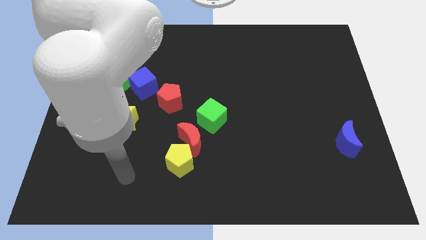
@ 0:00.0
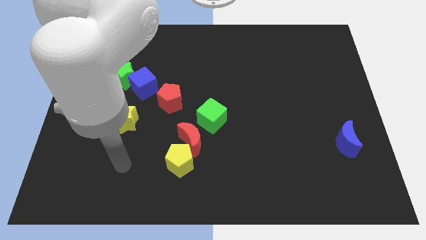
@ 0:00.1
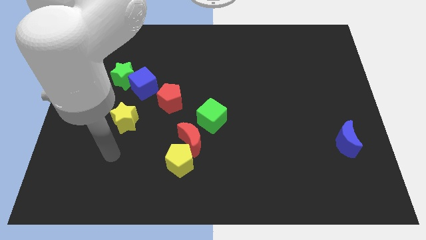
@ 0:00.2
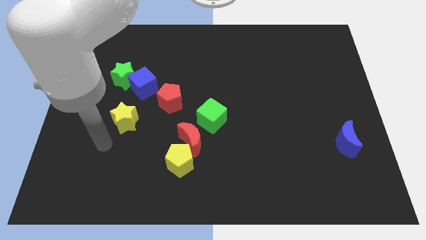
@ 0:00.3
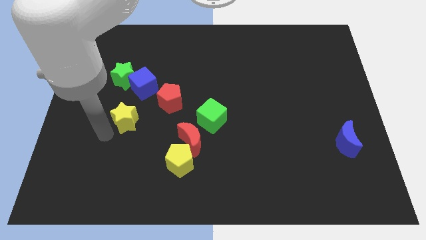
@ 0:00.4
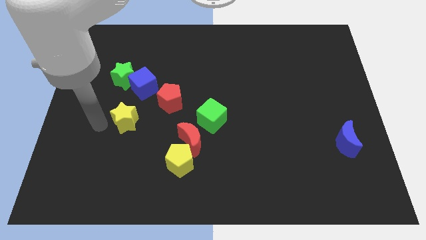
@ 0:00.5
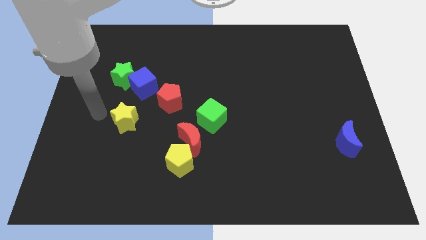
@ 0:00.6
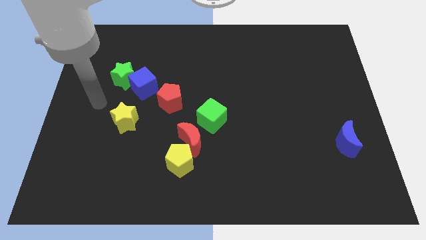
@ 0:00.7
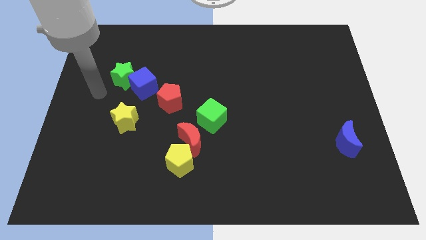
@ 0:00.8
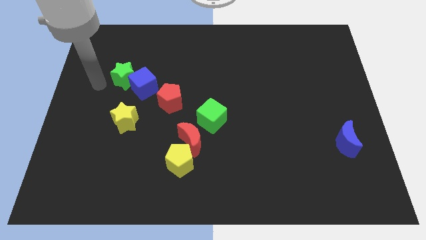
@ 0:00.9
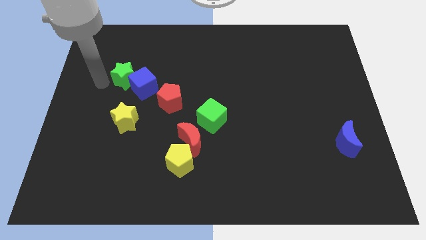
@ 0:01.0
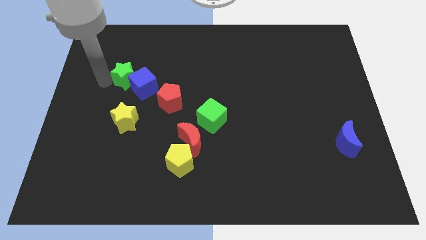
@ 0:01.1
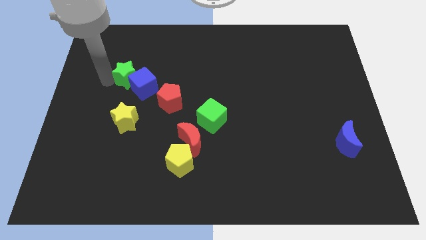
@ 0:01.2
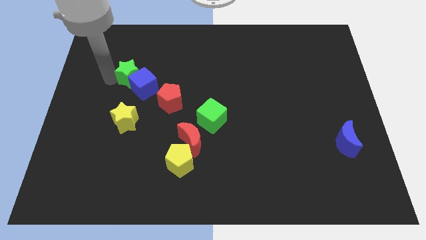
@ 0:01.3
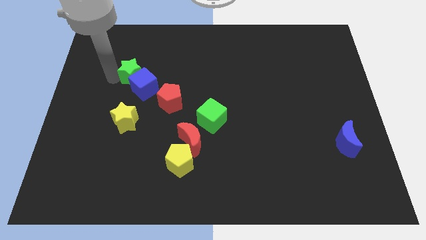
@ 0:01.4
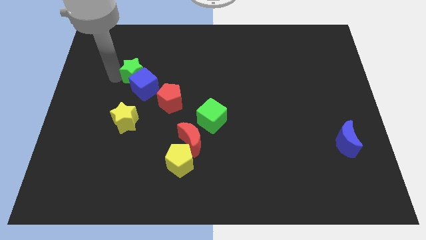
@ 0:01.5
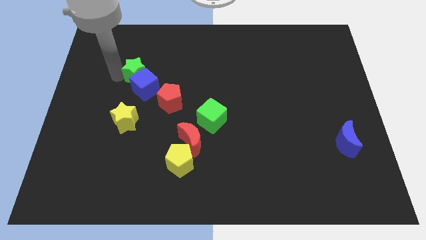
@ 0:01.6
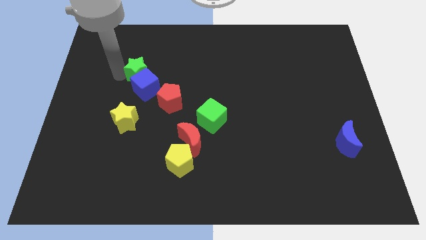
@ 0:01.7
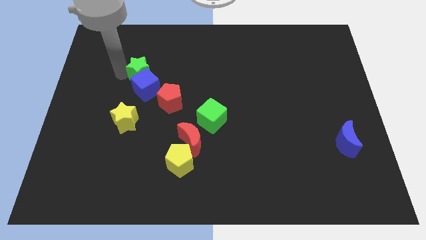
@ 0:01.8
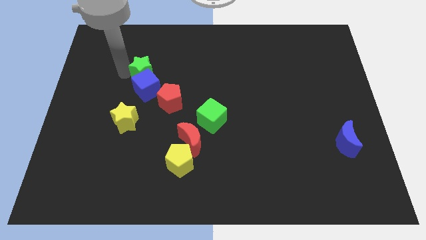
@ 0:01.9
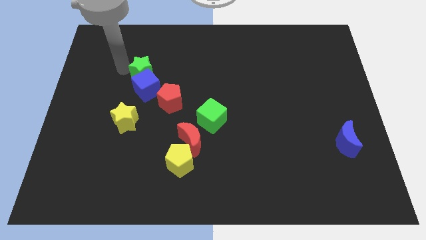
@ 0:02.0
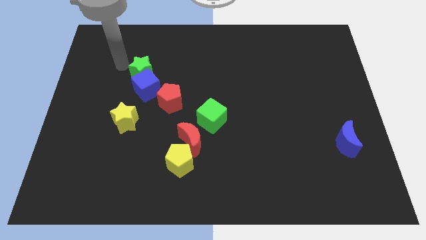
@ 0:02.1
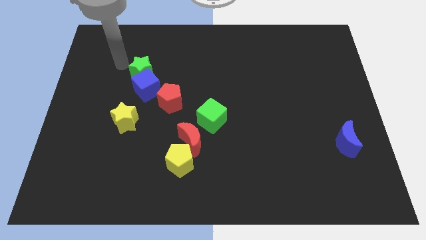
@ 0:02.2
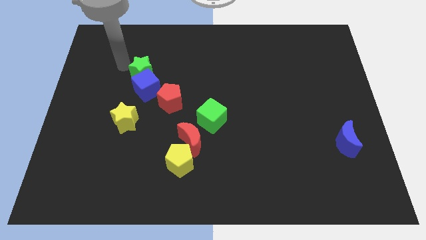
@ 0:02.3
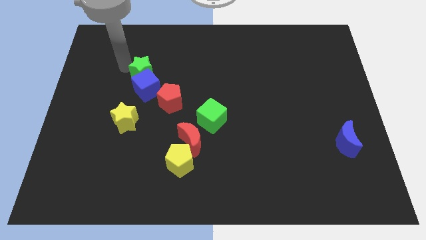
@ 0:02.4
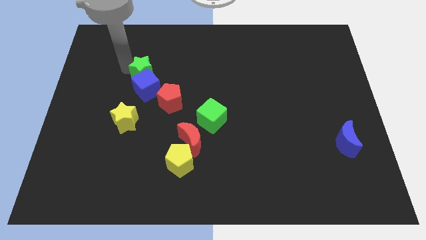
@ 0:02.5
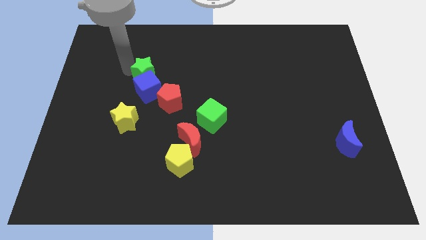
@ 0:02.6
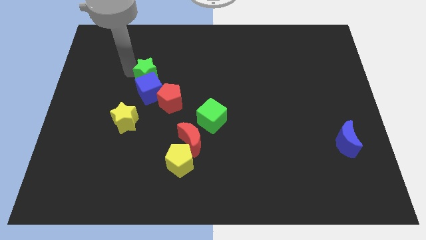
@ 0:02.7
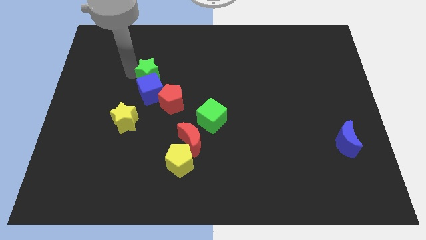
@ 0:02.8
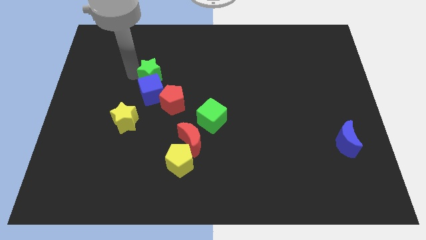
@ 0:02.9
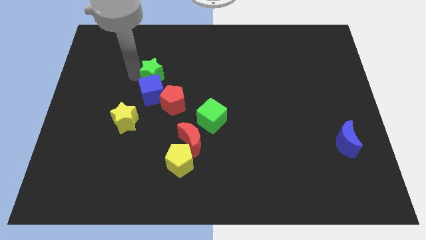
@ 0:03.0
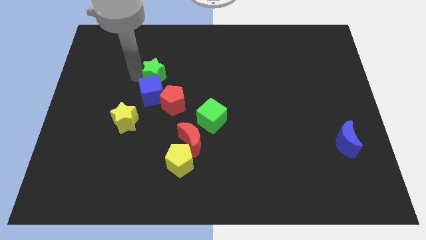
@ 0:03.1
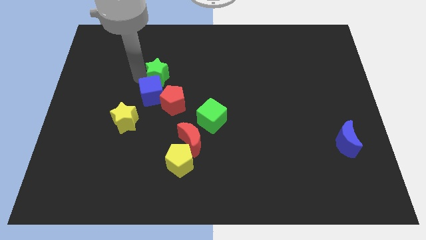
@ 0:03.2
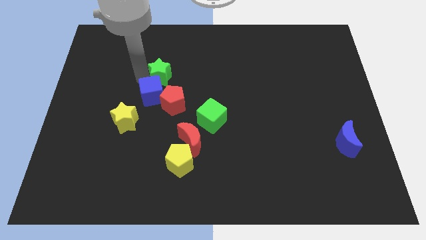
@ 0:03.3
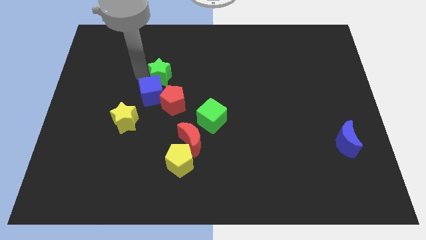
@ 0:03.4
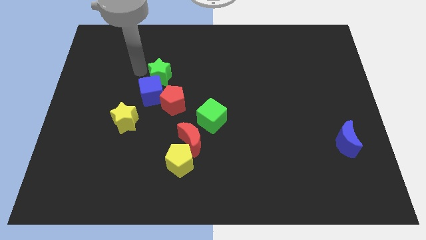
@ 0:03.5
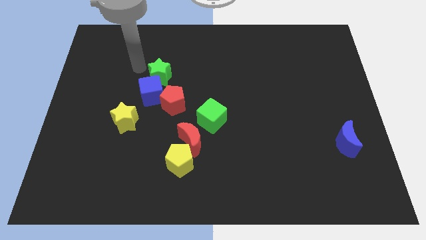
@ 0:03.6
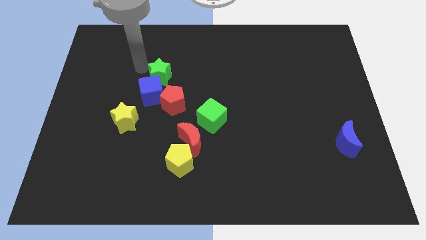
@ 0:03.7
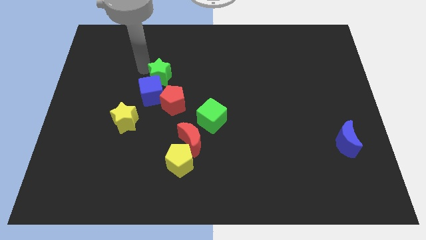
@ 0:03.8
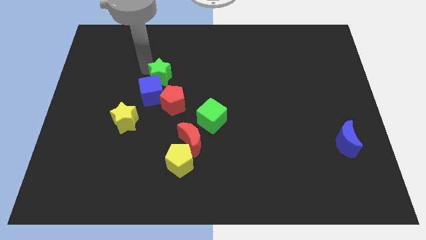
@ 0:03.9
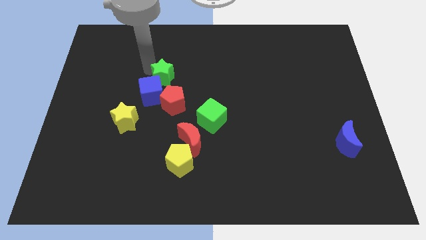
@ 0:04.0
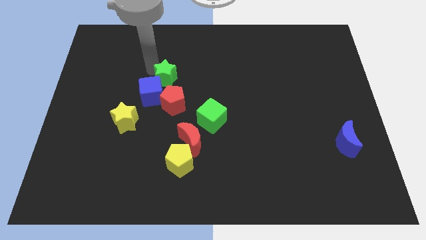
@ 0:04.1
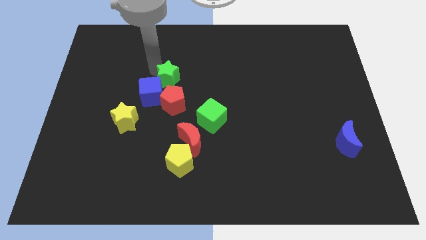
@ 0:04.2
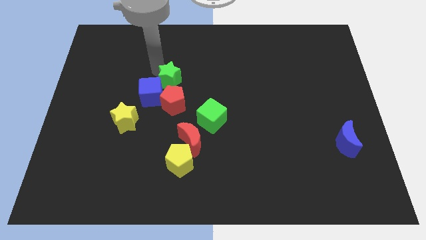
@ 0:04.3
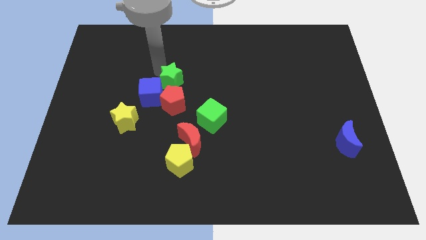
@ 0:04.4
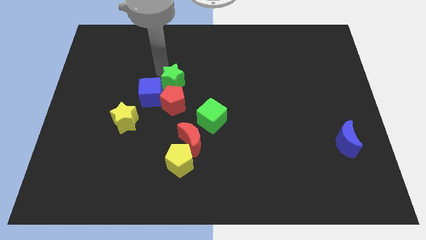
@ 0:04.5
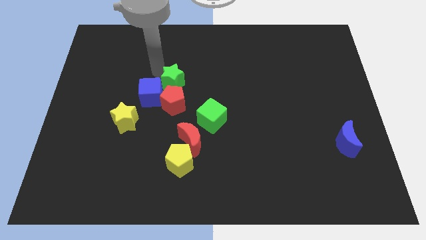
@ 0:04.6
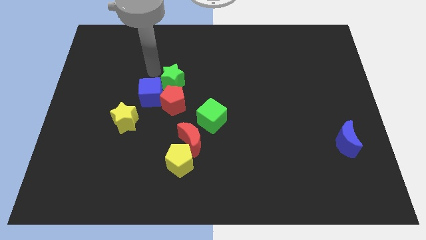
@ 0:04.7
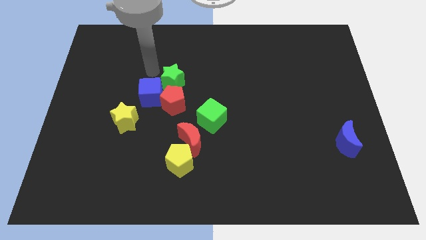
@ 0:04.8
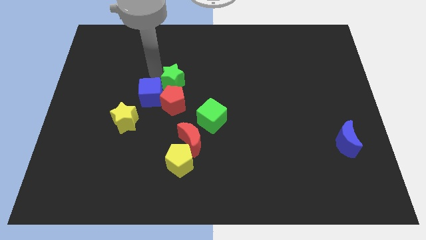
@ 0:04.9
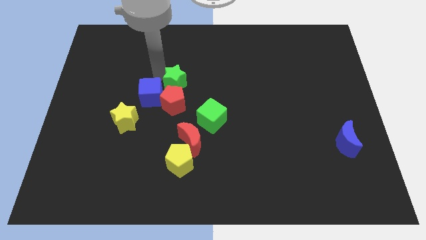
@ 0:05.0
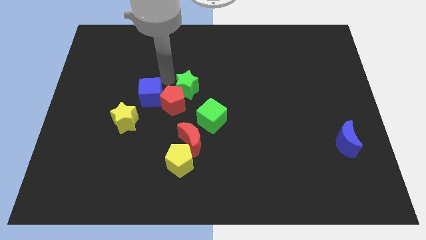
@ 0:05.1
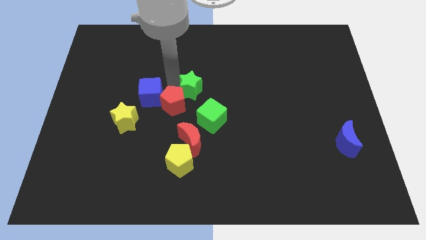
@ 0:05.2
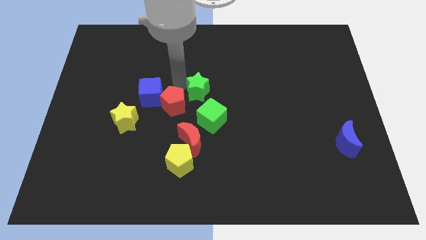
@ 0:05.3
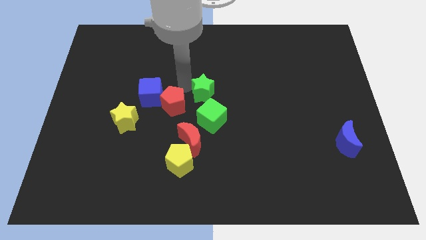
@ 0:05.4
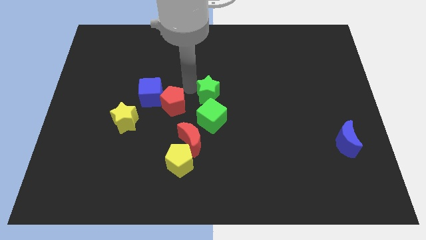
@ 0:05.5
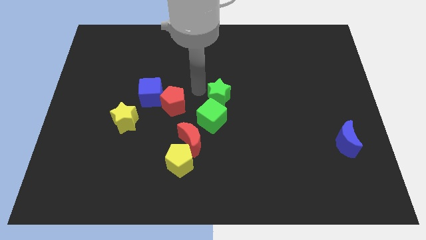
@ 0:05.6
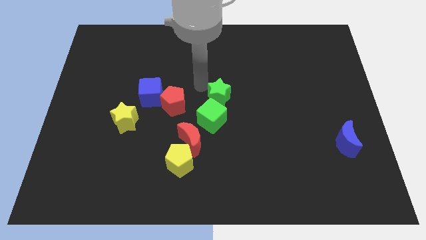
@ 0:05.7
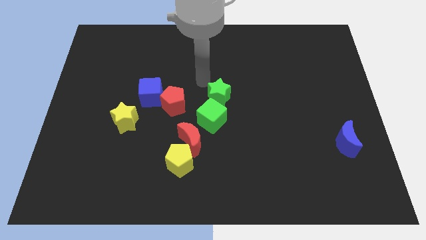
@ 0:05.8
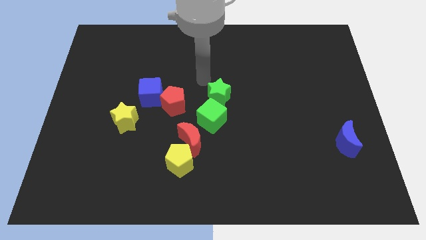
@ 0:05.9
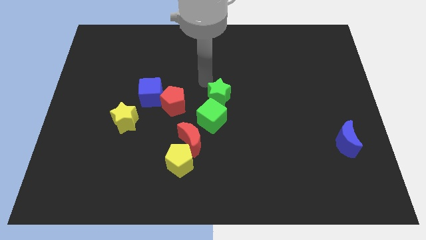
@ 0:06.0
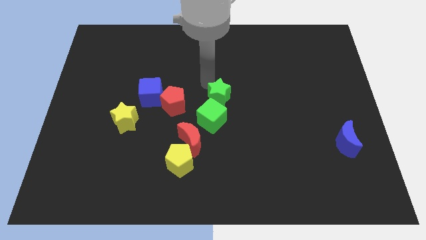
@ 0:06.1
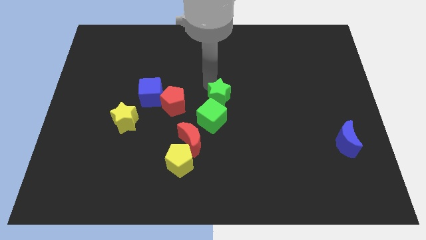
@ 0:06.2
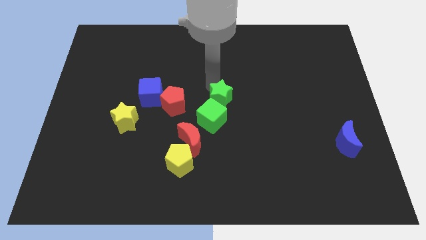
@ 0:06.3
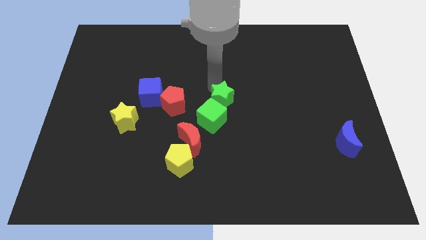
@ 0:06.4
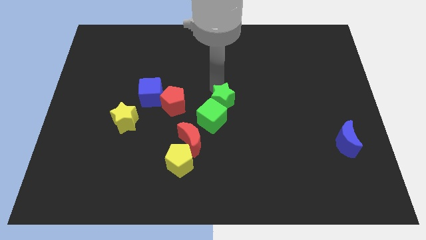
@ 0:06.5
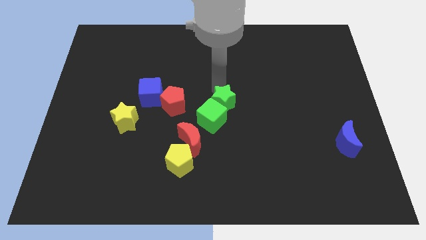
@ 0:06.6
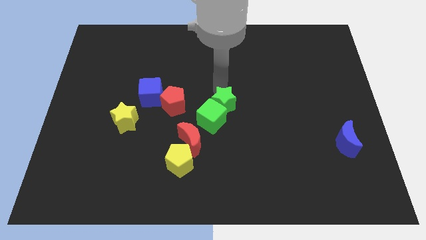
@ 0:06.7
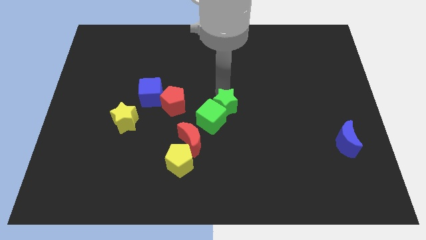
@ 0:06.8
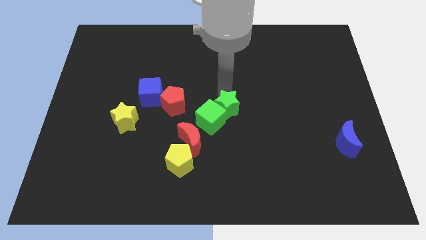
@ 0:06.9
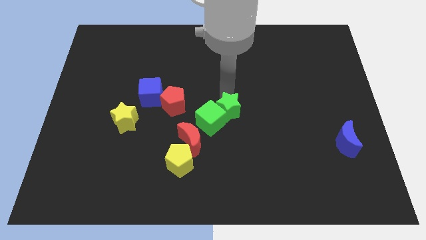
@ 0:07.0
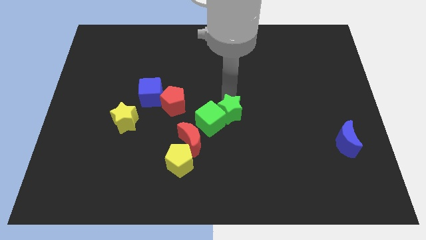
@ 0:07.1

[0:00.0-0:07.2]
push the green star diagonally downwards and to the right

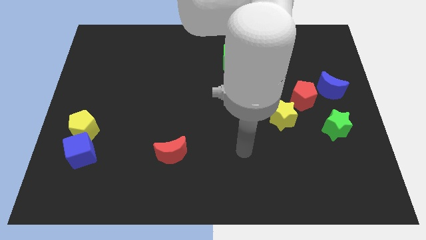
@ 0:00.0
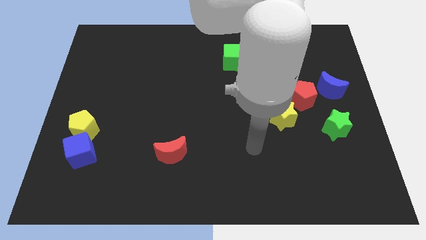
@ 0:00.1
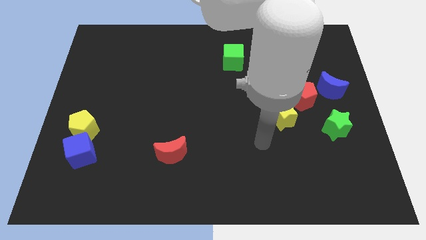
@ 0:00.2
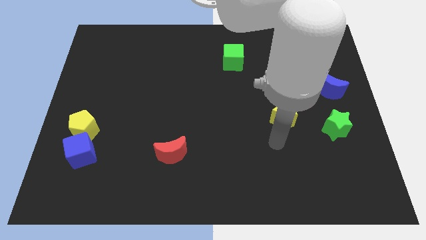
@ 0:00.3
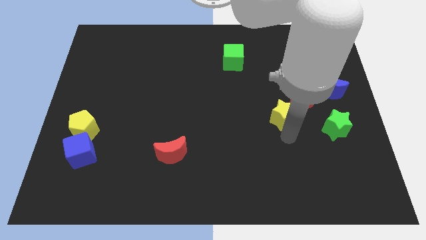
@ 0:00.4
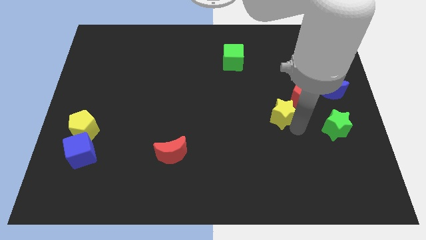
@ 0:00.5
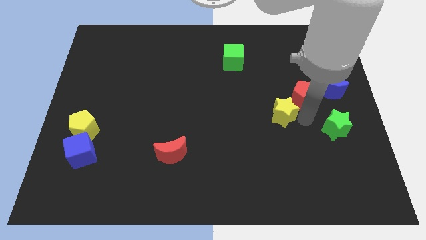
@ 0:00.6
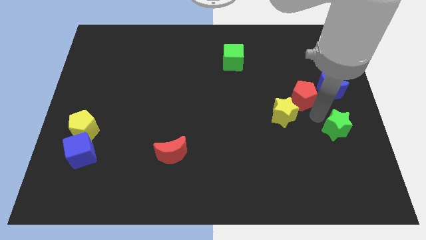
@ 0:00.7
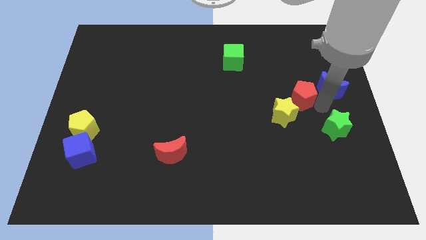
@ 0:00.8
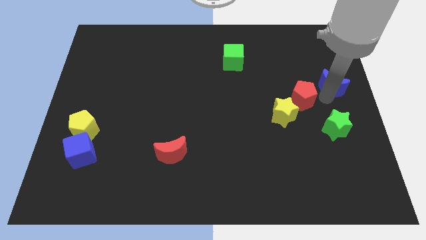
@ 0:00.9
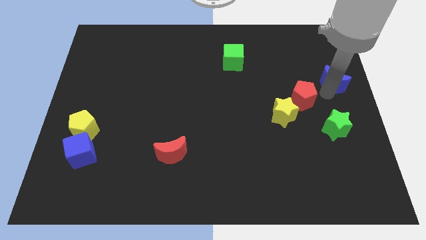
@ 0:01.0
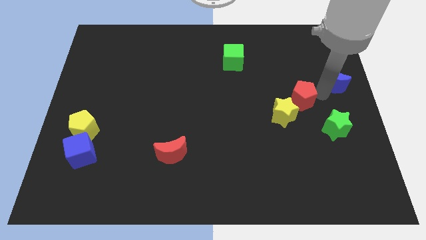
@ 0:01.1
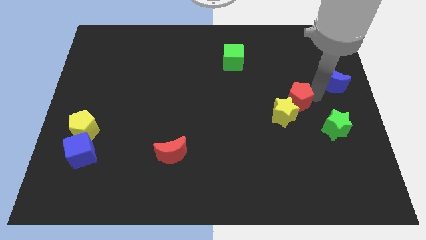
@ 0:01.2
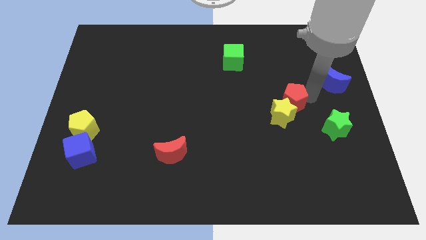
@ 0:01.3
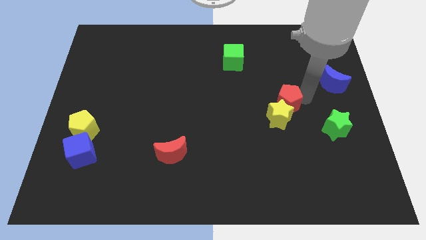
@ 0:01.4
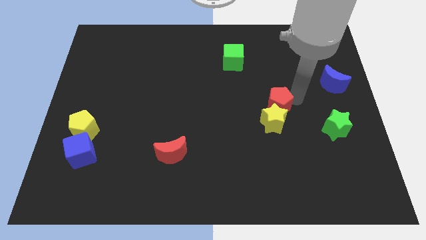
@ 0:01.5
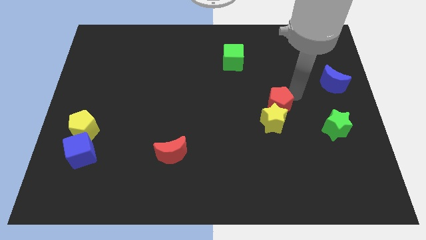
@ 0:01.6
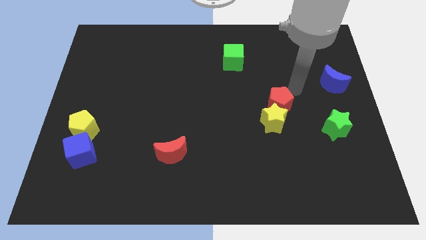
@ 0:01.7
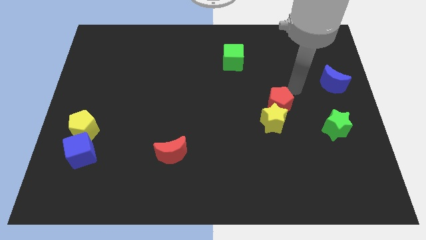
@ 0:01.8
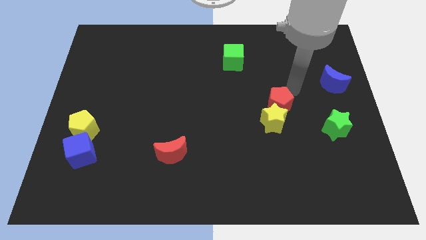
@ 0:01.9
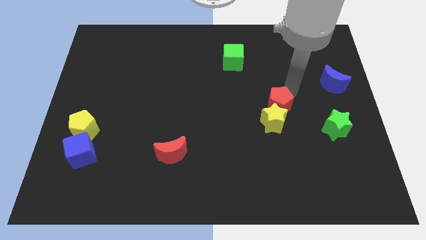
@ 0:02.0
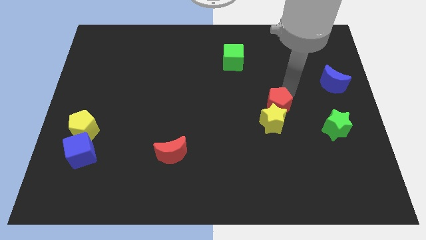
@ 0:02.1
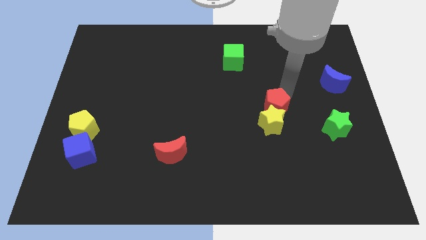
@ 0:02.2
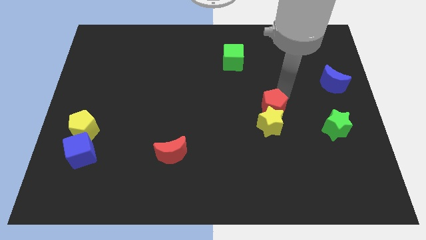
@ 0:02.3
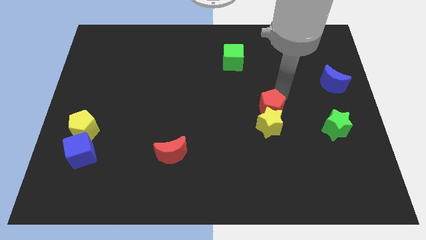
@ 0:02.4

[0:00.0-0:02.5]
push the red pentagon diagonally down and to the left slightly
